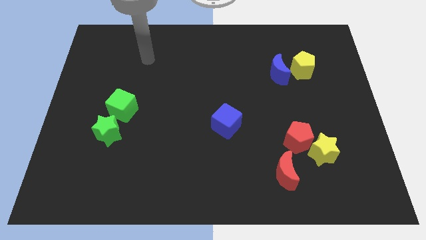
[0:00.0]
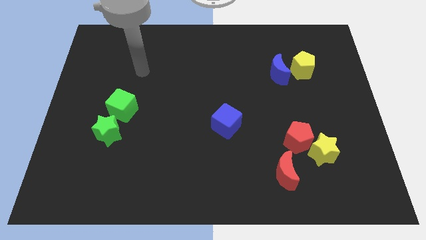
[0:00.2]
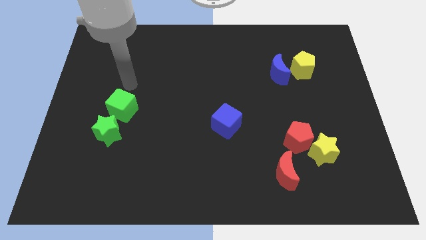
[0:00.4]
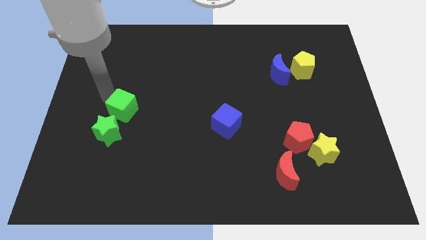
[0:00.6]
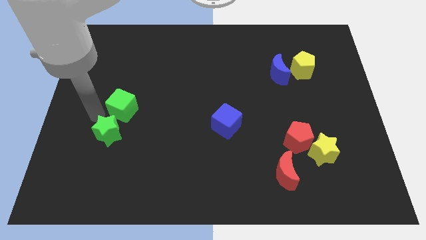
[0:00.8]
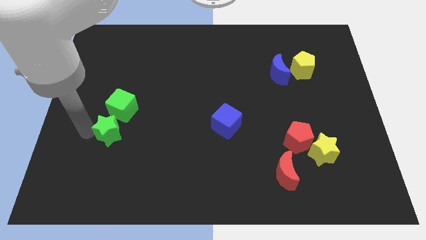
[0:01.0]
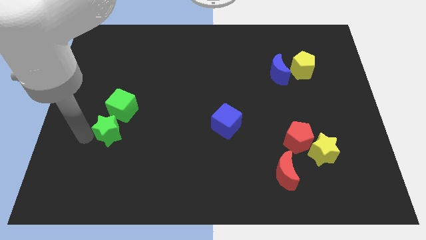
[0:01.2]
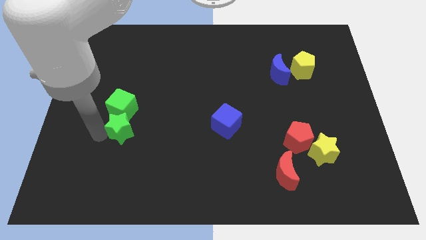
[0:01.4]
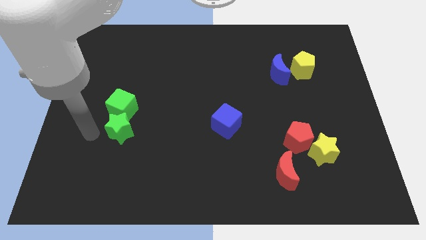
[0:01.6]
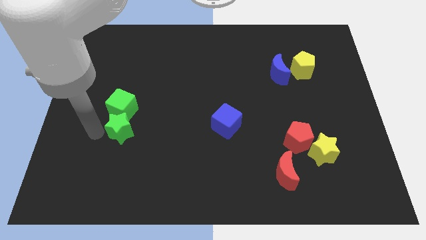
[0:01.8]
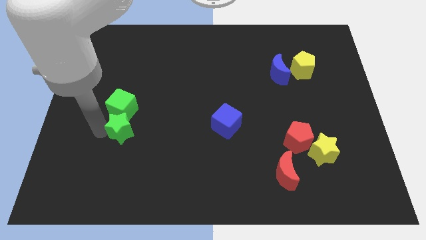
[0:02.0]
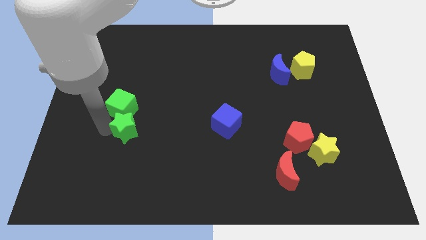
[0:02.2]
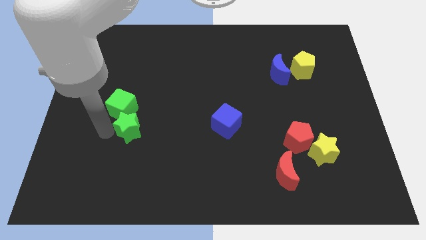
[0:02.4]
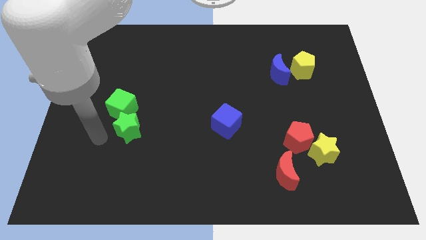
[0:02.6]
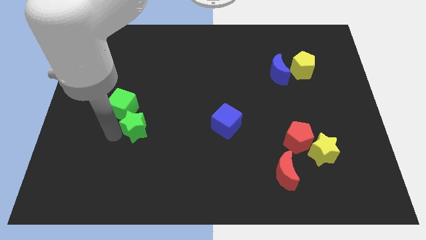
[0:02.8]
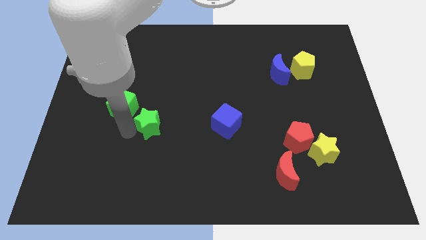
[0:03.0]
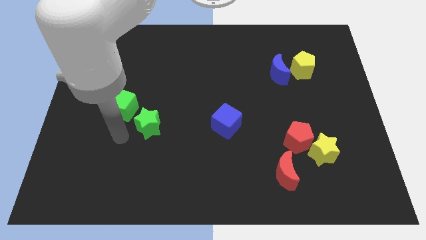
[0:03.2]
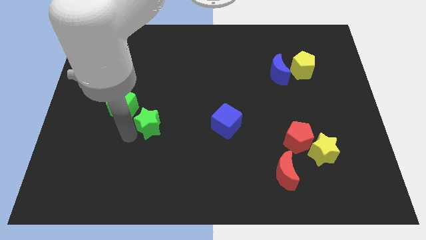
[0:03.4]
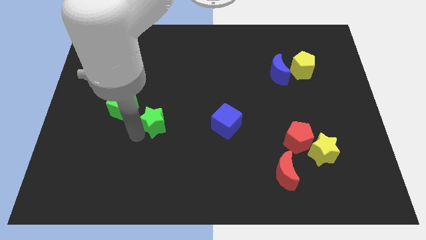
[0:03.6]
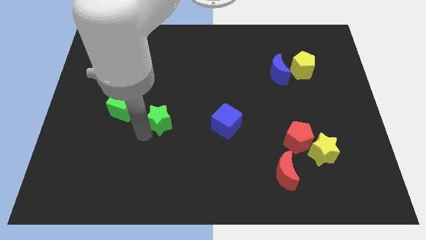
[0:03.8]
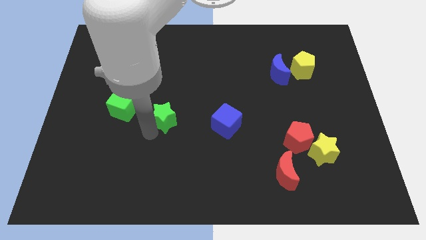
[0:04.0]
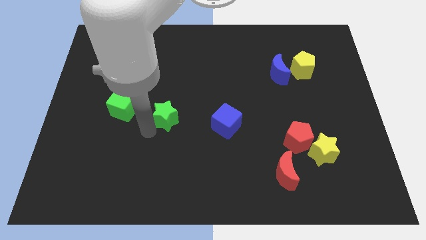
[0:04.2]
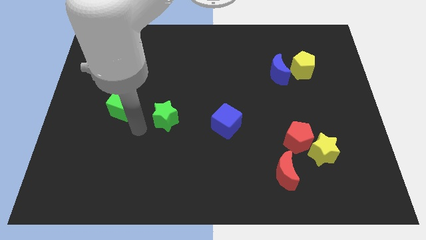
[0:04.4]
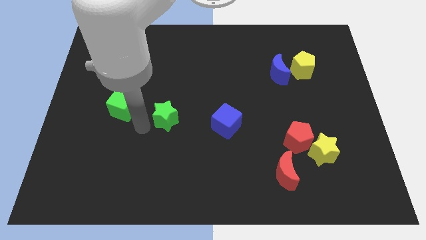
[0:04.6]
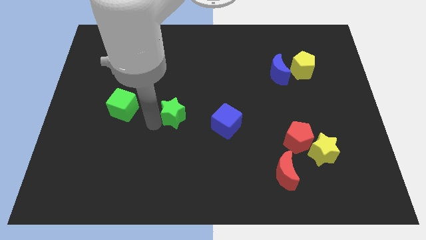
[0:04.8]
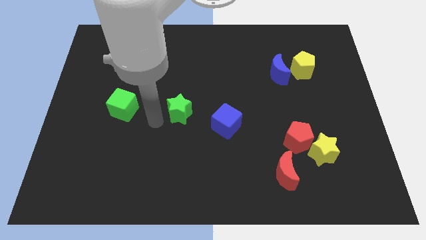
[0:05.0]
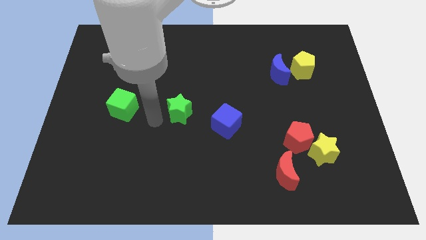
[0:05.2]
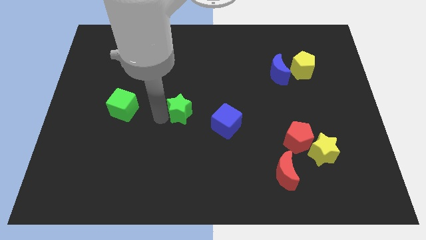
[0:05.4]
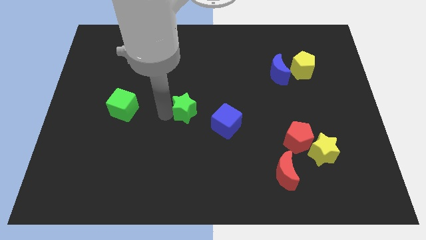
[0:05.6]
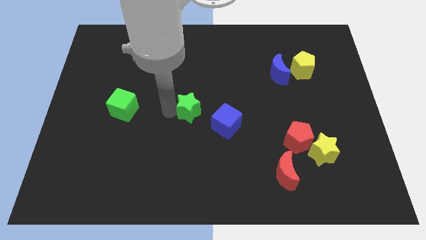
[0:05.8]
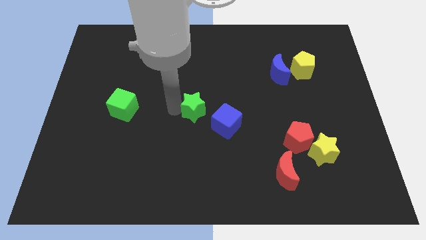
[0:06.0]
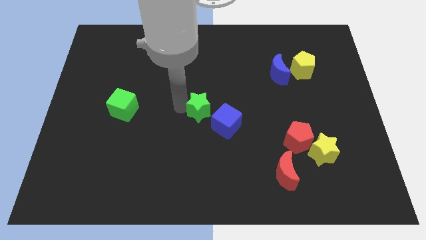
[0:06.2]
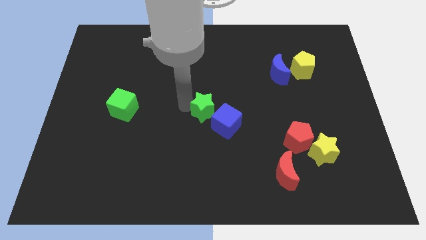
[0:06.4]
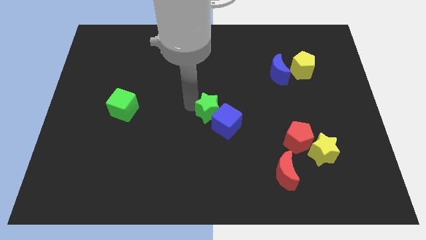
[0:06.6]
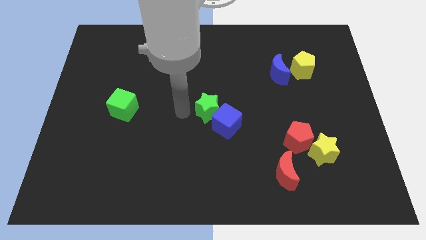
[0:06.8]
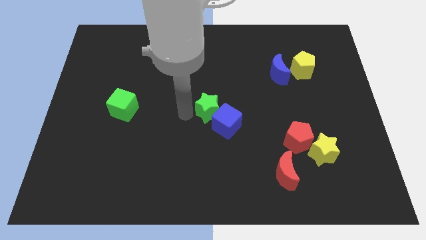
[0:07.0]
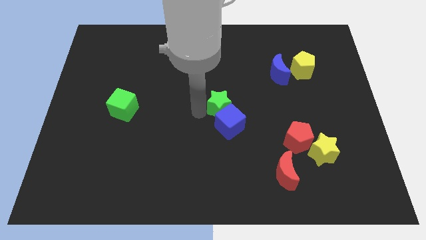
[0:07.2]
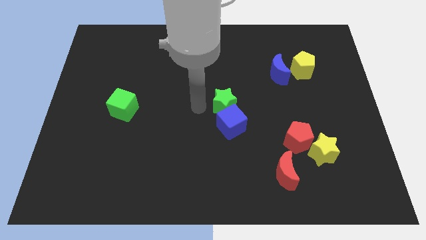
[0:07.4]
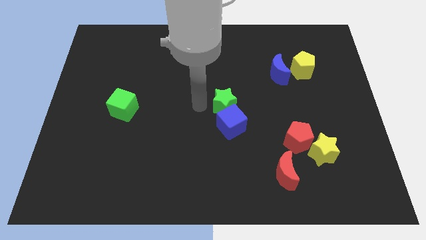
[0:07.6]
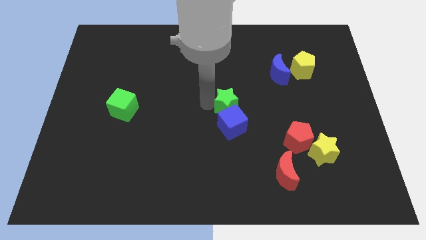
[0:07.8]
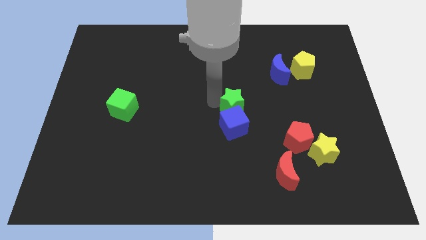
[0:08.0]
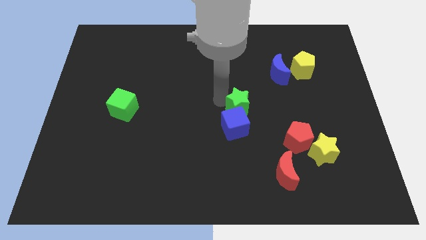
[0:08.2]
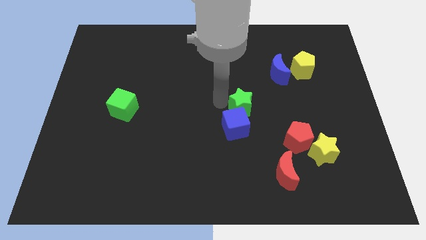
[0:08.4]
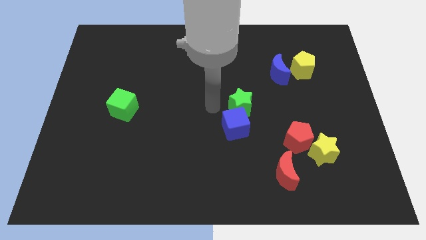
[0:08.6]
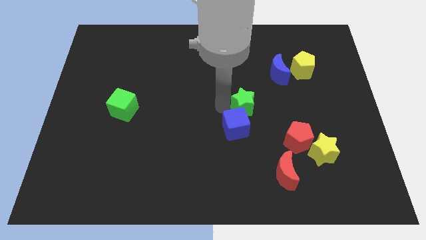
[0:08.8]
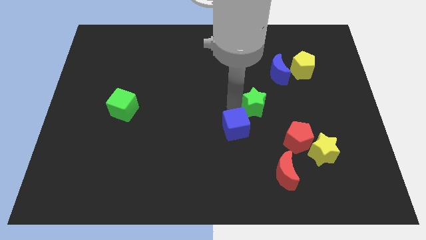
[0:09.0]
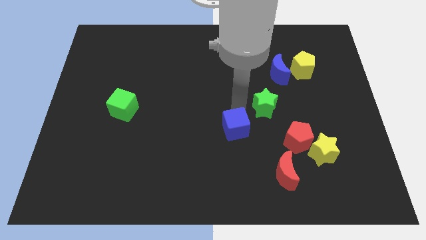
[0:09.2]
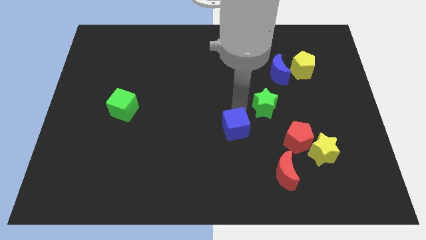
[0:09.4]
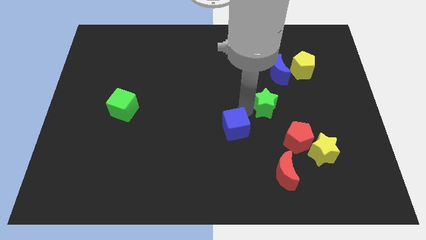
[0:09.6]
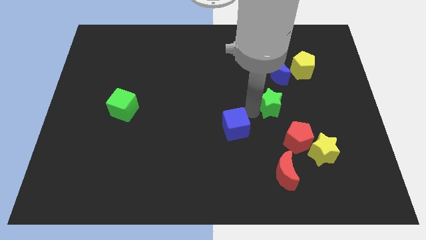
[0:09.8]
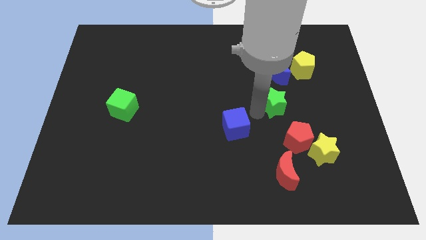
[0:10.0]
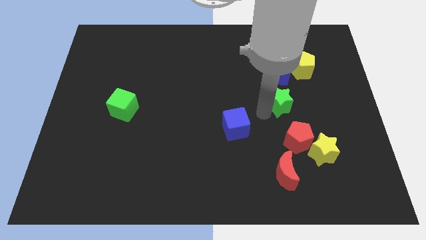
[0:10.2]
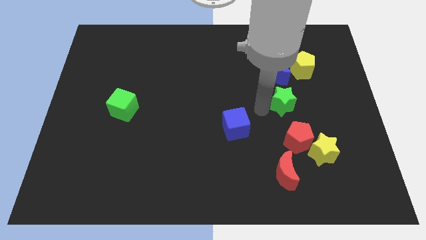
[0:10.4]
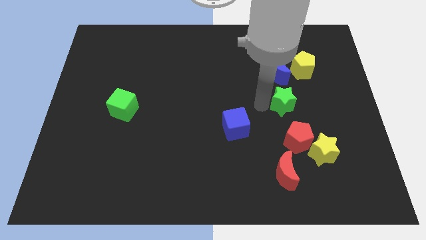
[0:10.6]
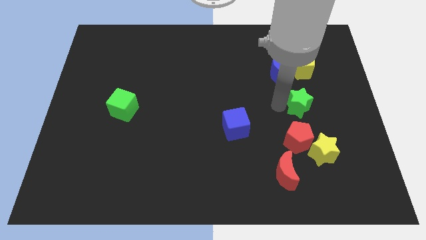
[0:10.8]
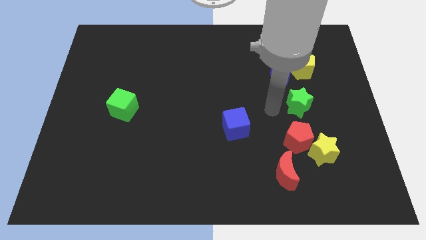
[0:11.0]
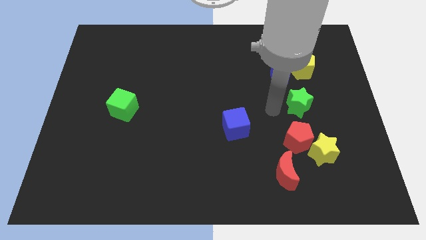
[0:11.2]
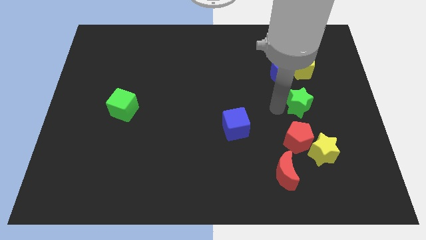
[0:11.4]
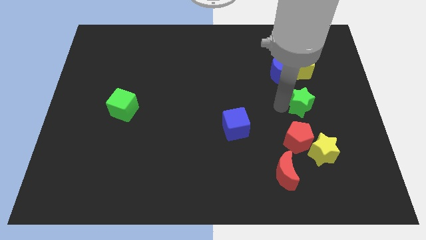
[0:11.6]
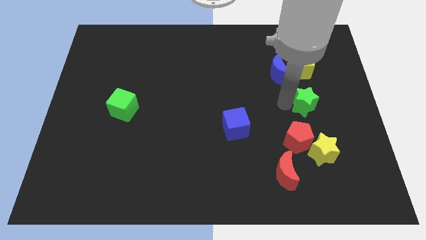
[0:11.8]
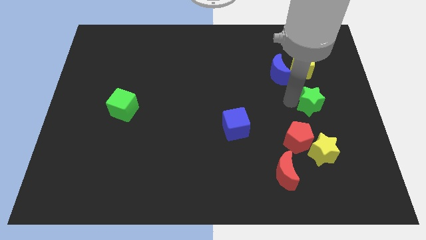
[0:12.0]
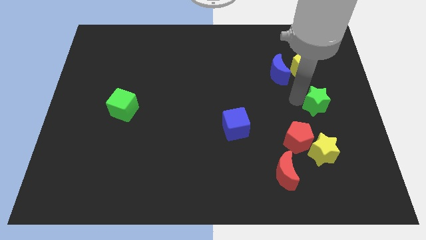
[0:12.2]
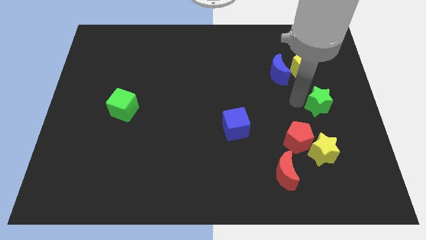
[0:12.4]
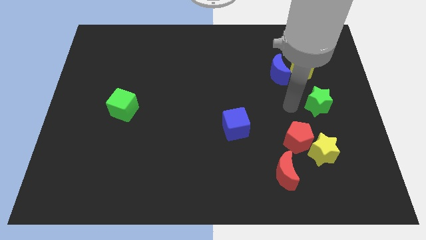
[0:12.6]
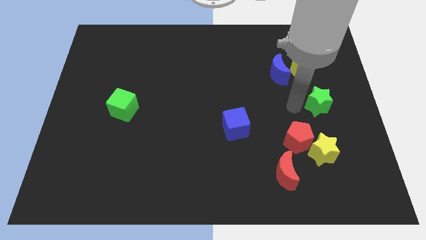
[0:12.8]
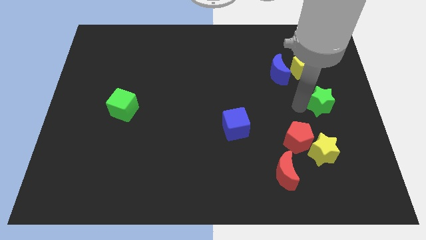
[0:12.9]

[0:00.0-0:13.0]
push the green star to the center right

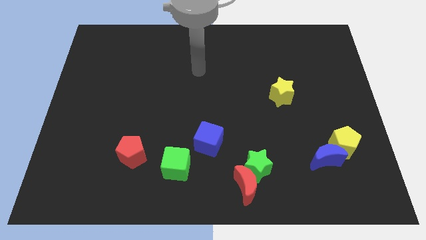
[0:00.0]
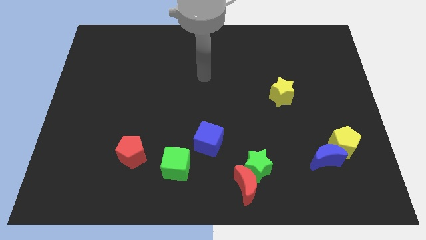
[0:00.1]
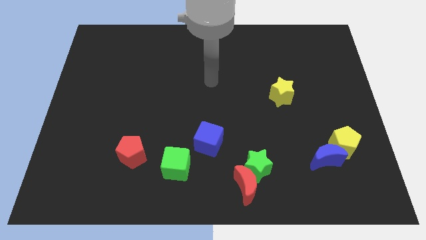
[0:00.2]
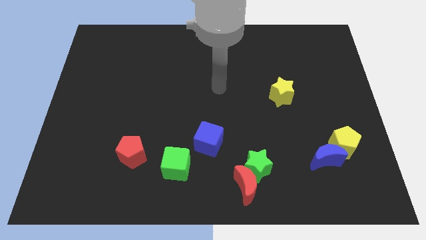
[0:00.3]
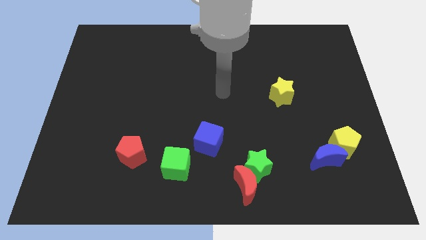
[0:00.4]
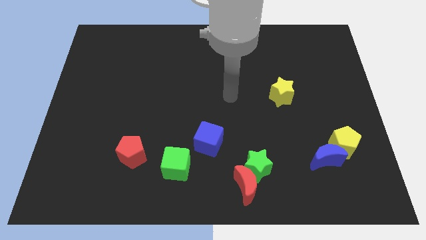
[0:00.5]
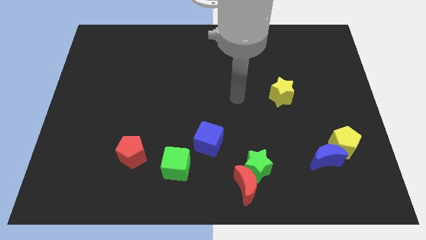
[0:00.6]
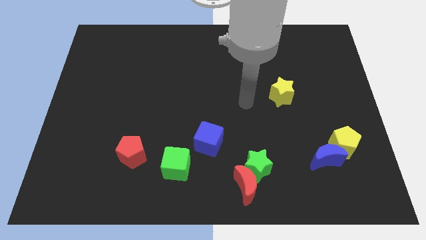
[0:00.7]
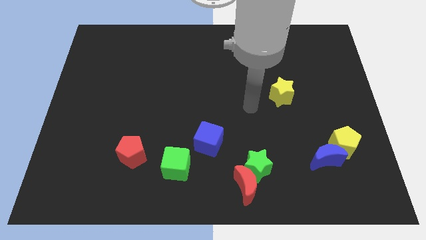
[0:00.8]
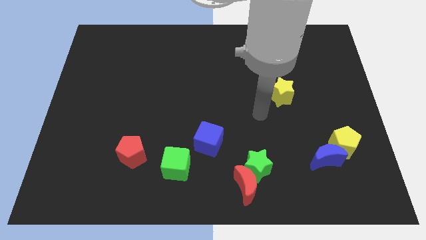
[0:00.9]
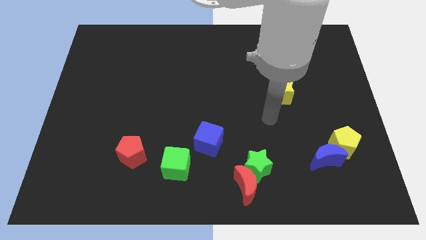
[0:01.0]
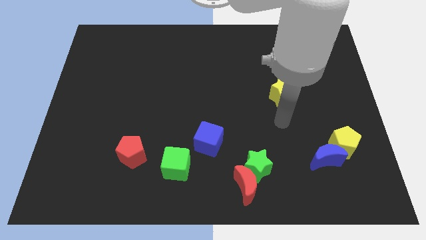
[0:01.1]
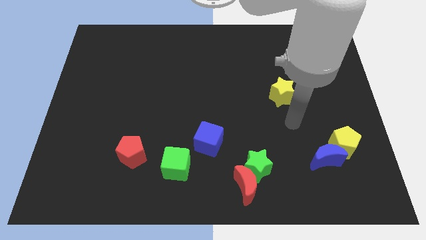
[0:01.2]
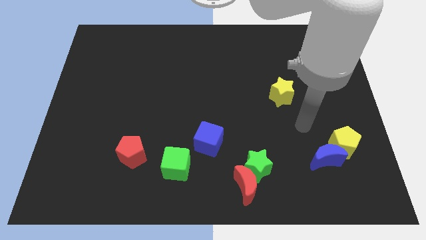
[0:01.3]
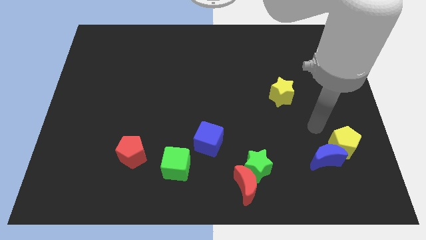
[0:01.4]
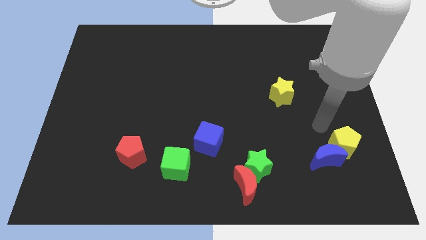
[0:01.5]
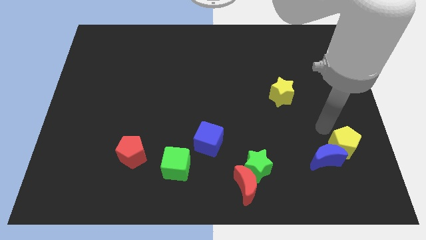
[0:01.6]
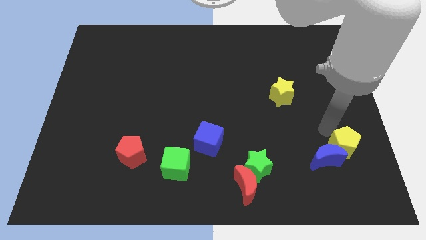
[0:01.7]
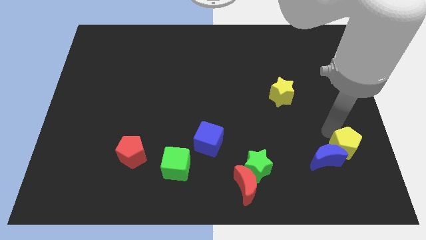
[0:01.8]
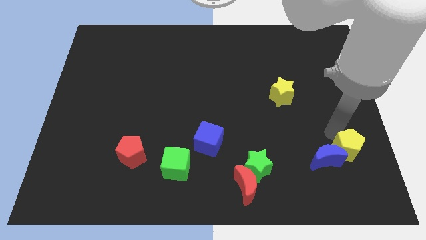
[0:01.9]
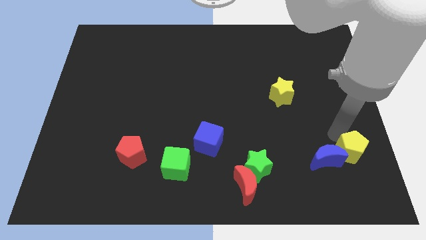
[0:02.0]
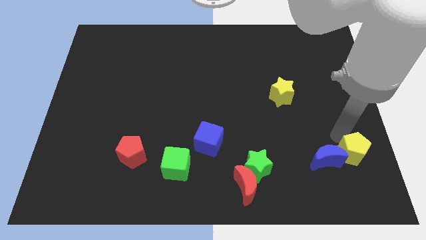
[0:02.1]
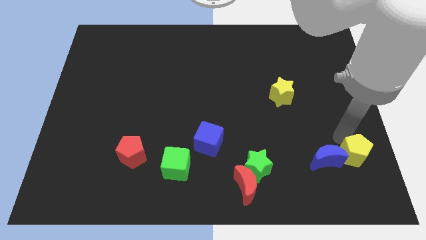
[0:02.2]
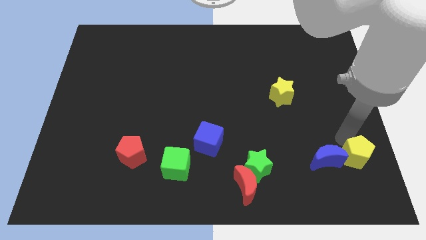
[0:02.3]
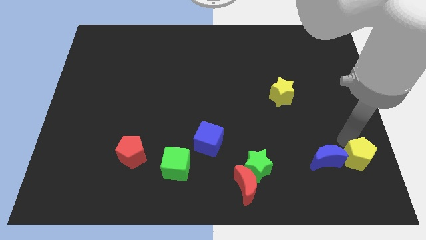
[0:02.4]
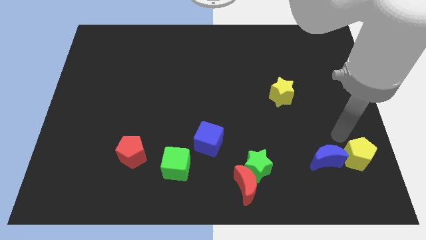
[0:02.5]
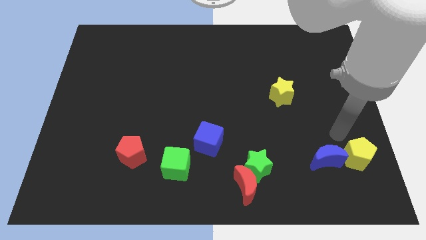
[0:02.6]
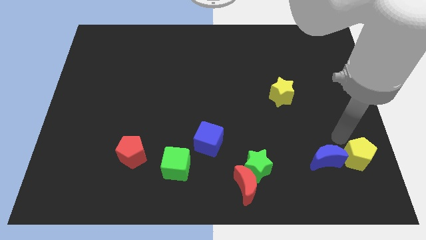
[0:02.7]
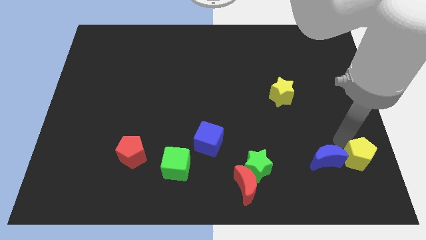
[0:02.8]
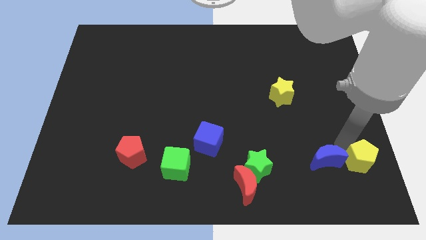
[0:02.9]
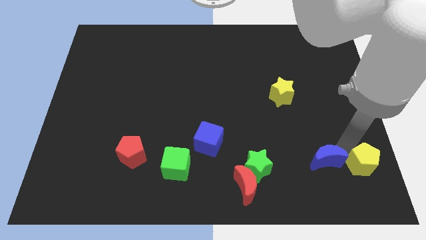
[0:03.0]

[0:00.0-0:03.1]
move the yellow pentagon to the bottom right
